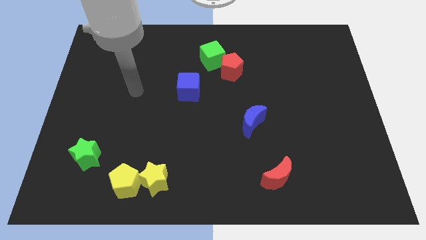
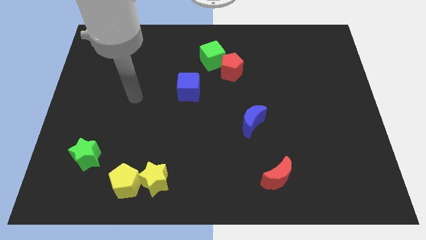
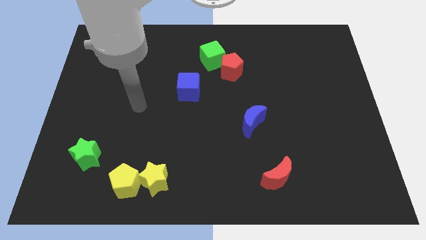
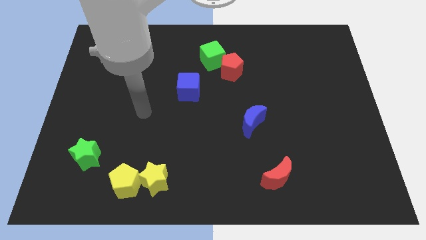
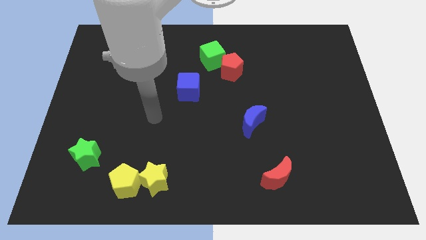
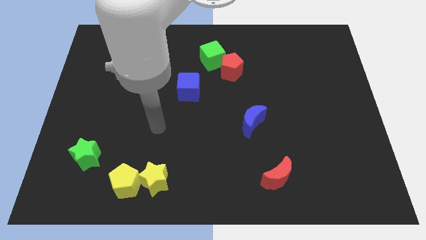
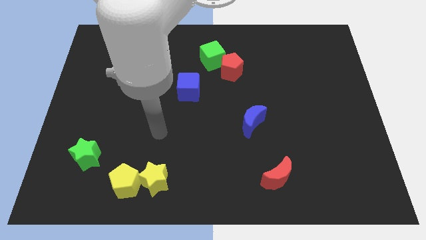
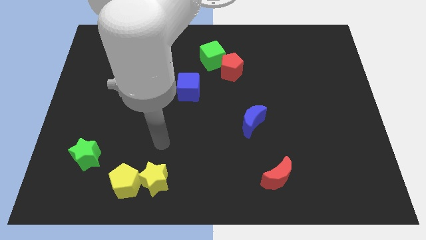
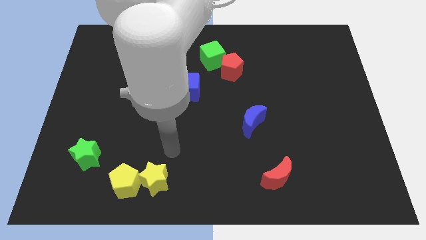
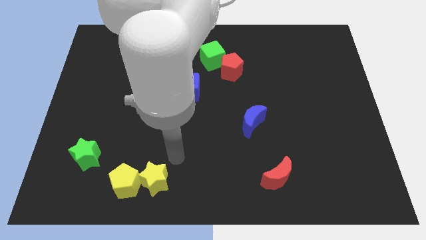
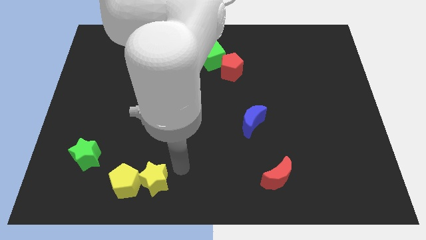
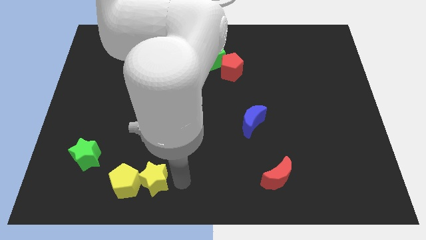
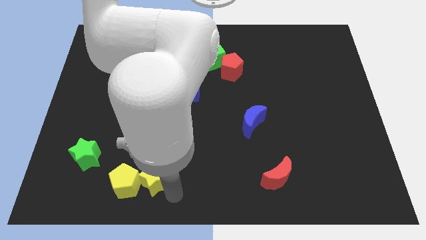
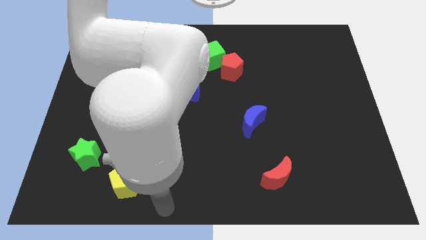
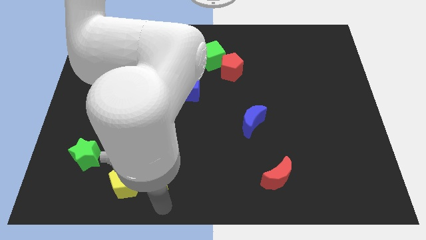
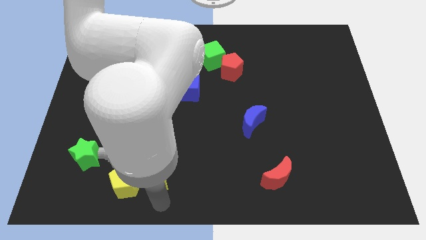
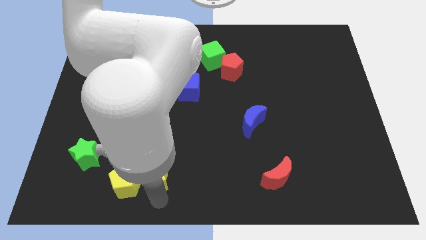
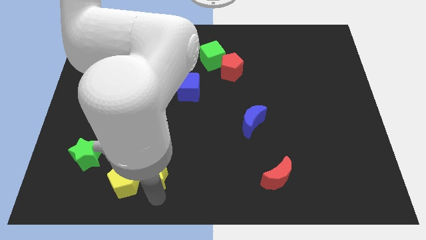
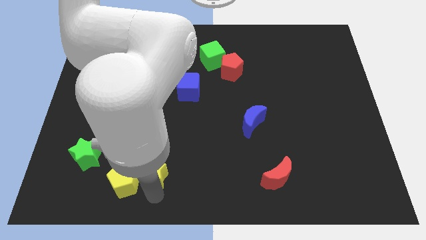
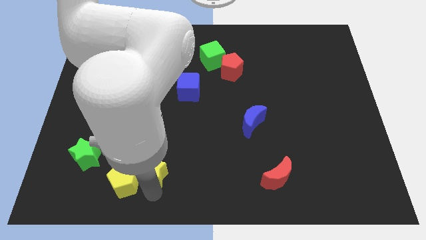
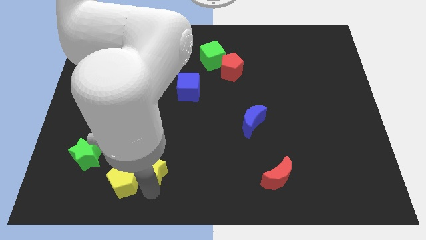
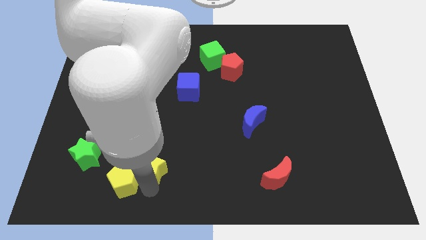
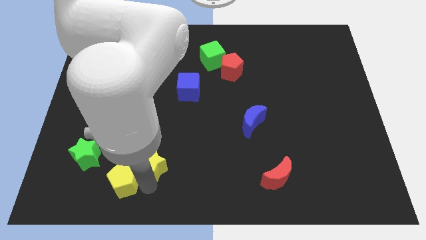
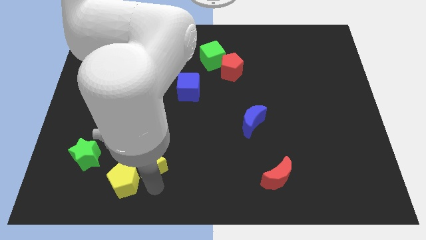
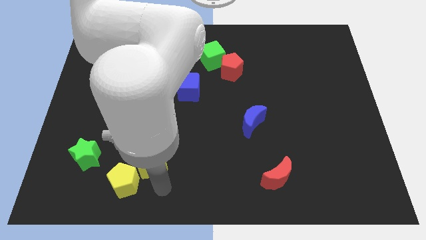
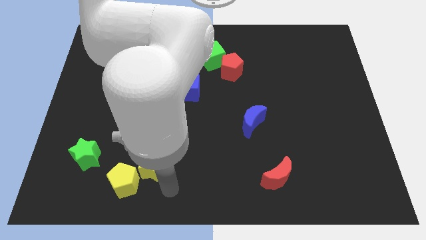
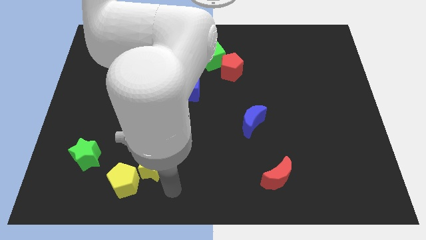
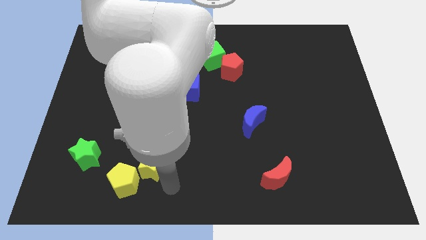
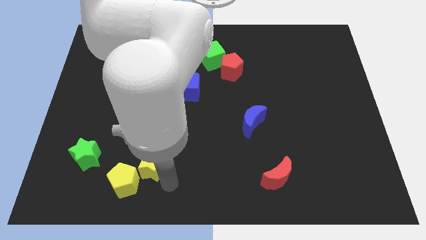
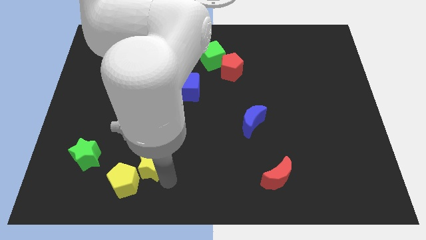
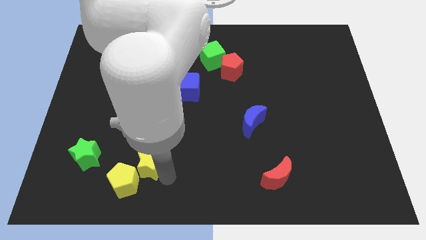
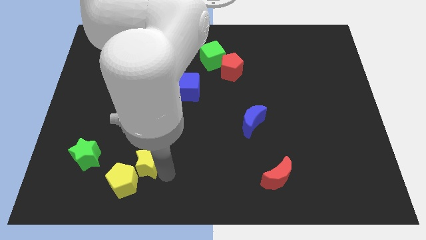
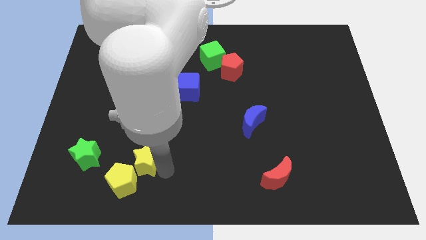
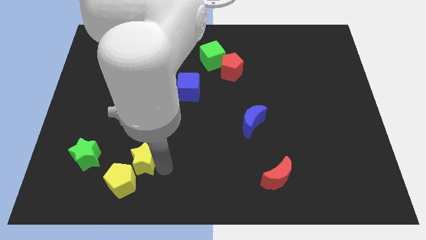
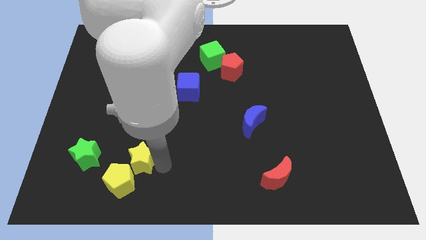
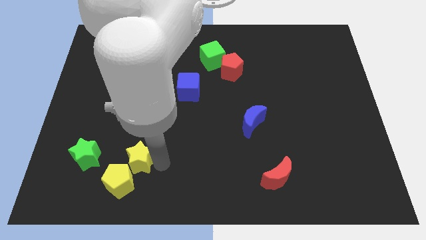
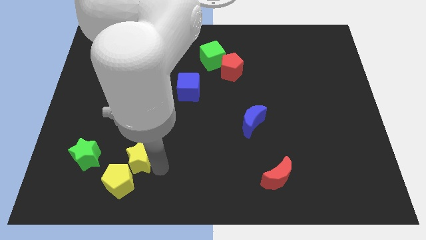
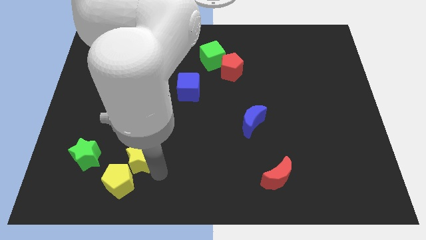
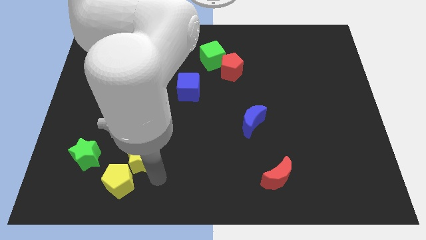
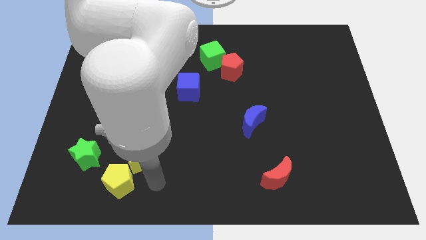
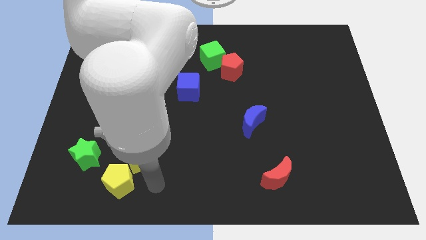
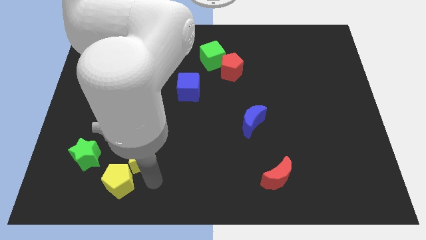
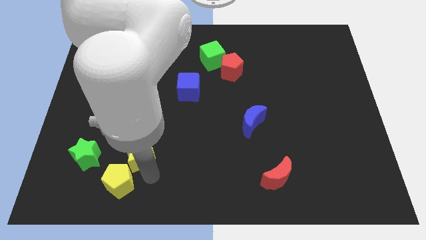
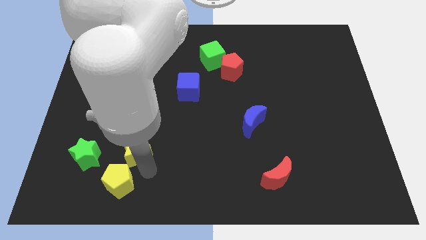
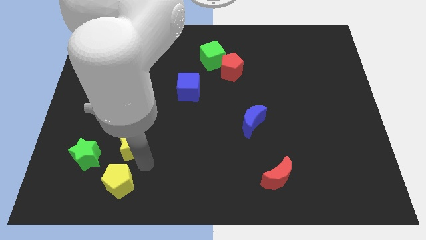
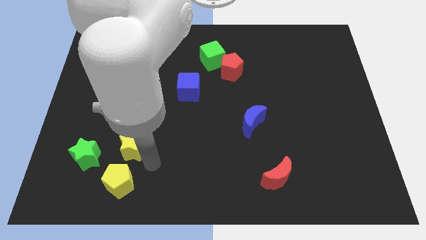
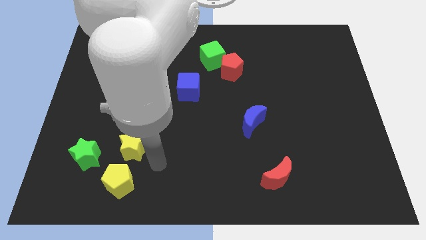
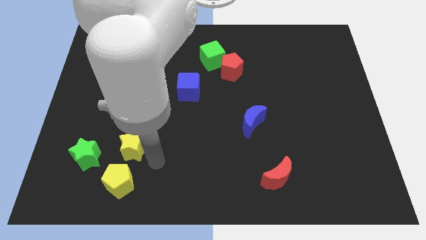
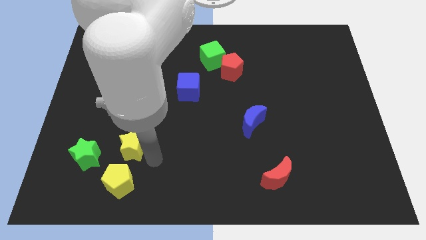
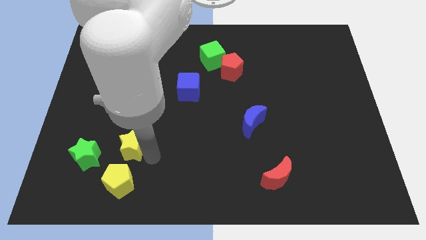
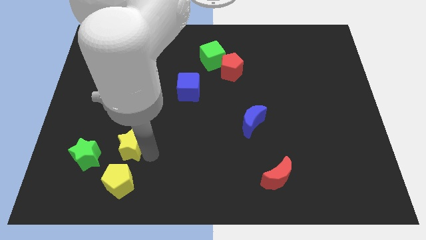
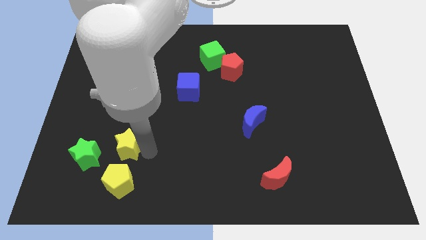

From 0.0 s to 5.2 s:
put the yellow star to the top right of the green star

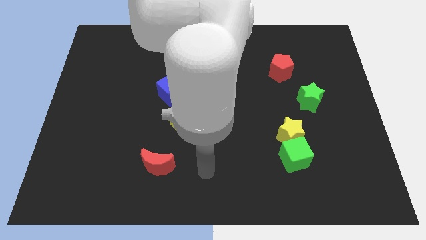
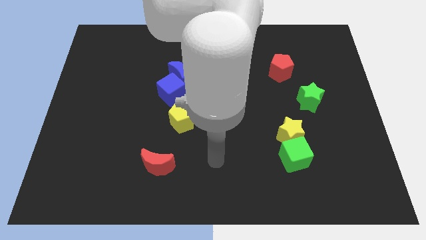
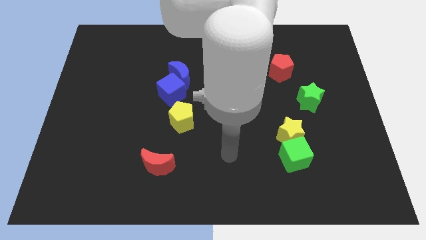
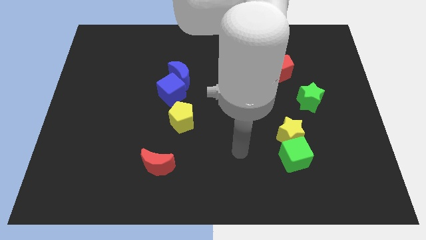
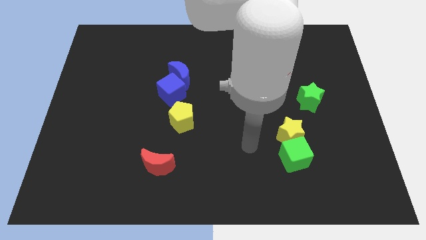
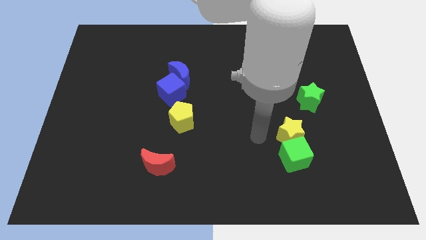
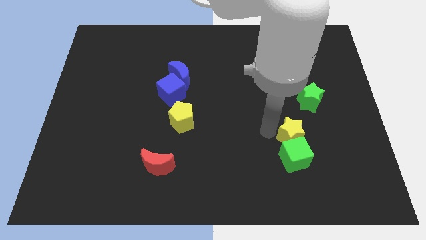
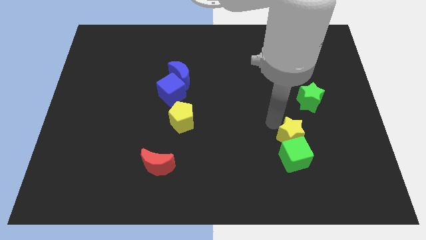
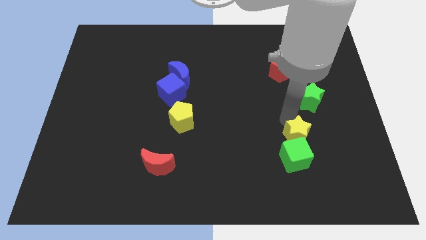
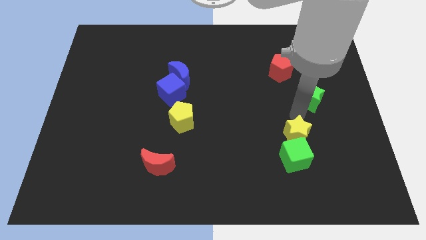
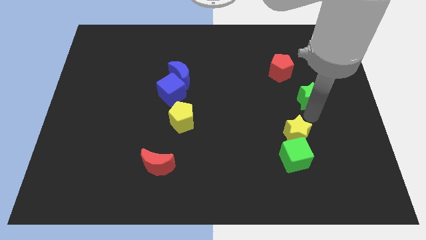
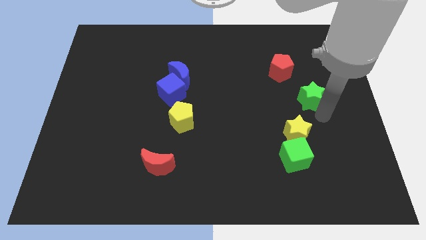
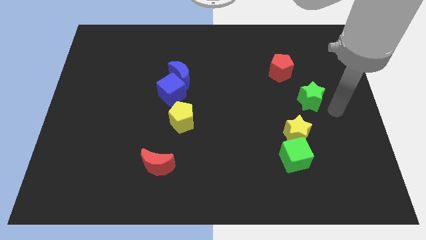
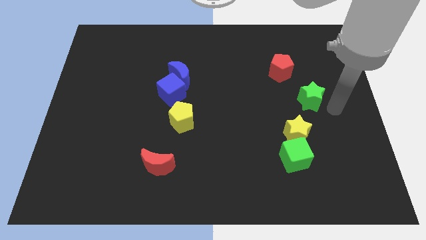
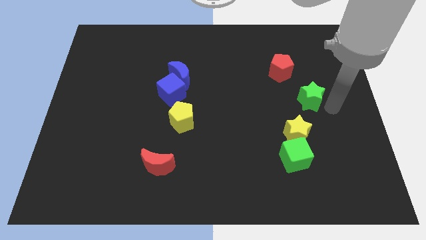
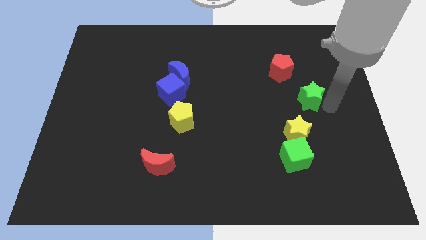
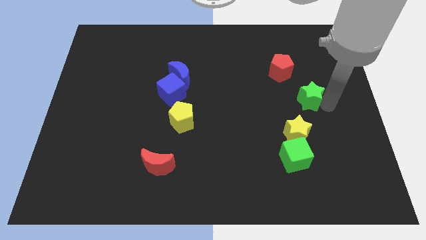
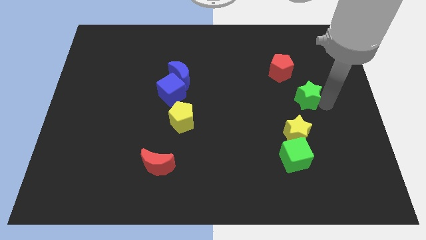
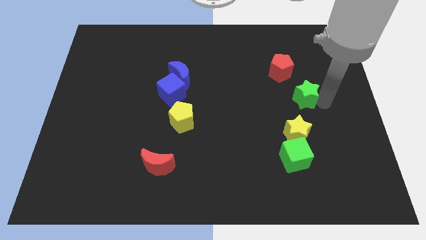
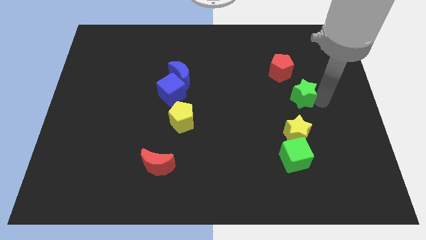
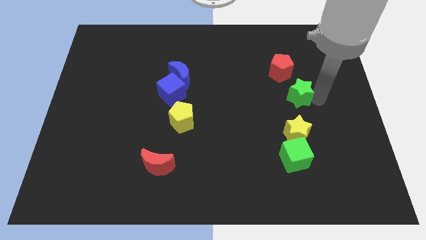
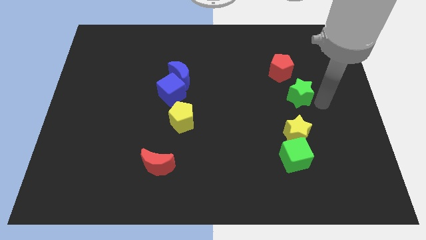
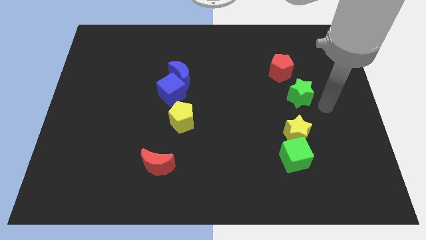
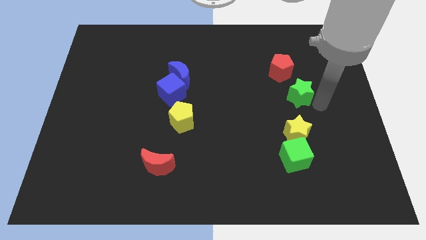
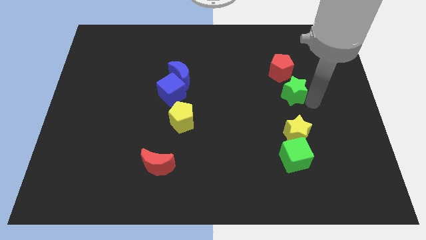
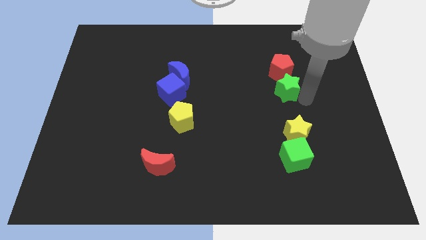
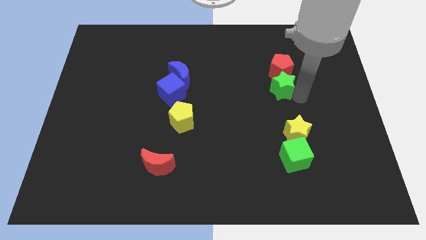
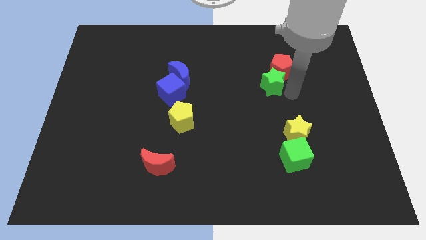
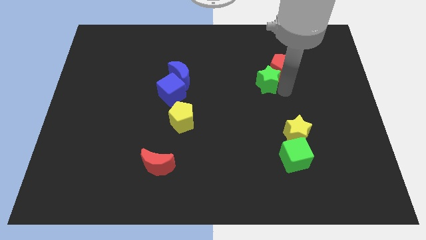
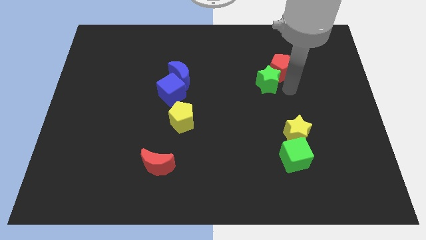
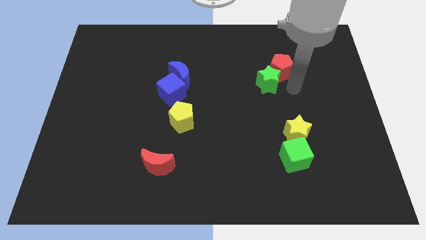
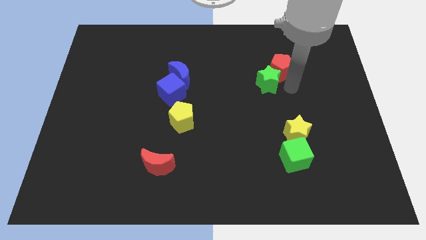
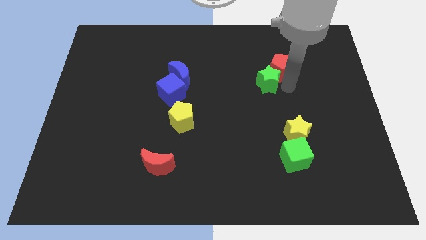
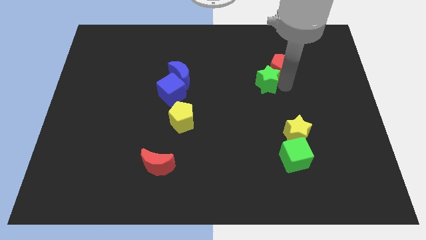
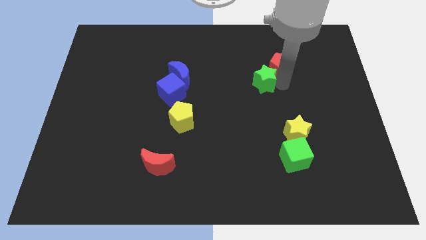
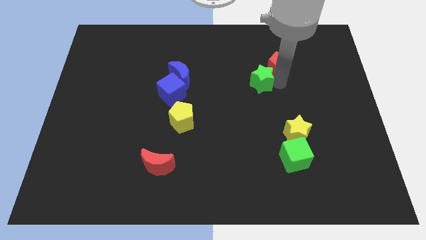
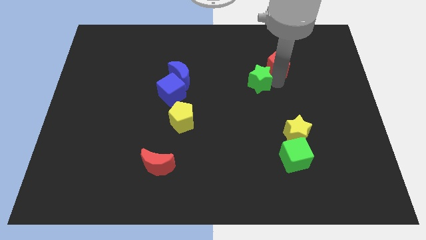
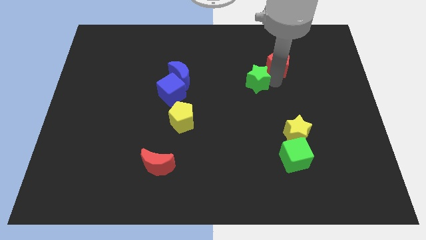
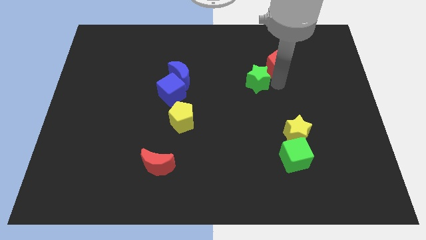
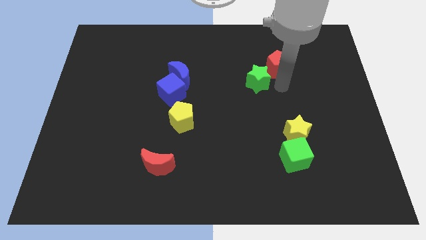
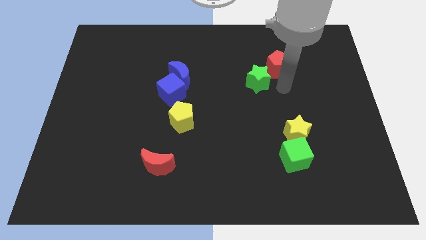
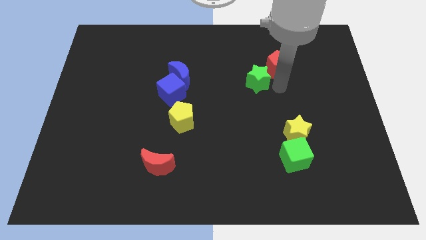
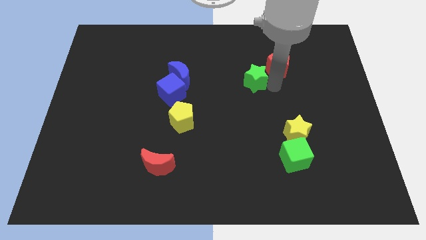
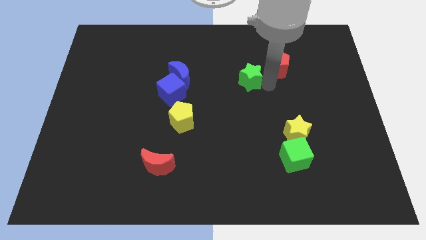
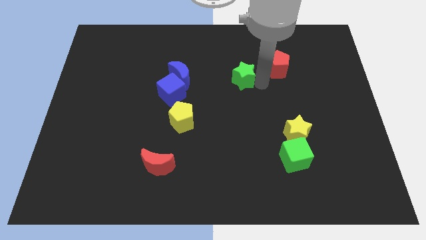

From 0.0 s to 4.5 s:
move the green star to the right of the blue moon
